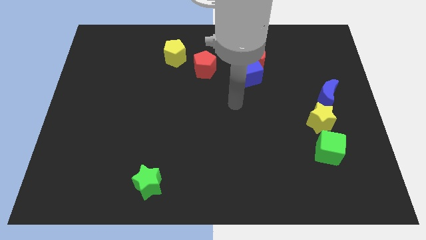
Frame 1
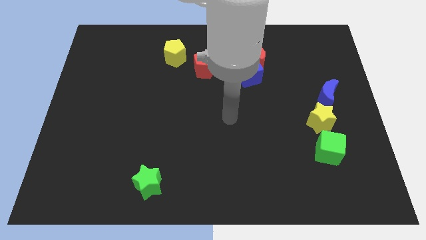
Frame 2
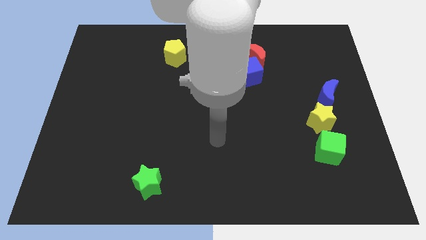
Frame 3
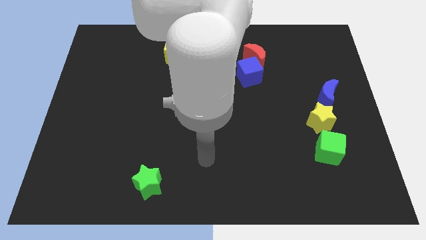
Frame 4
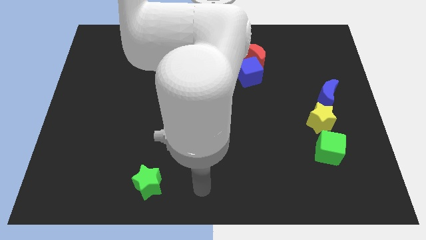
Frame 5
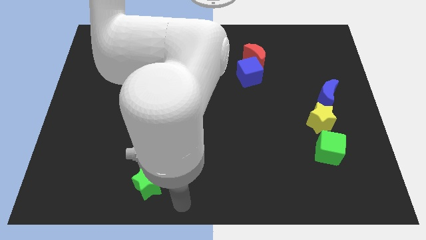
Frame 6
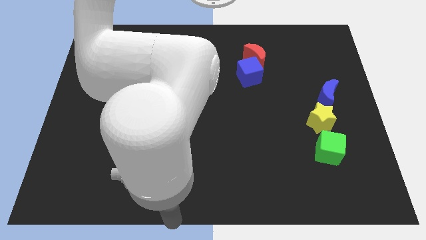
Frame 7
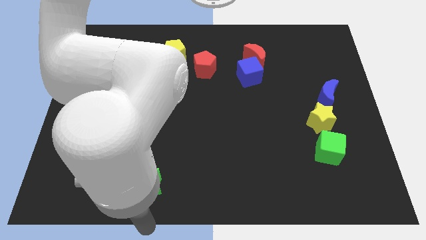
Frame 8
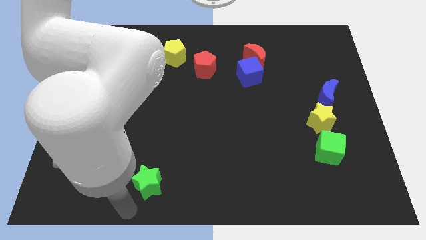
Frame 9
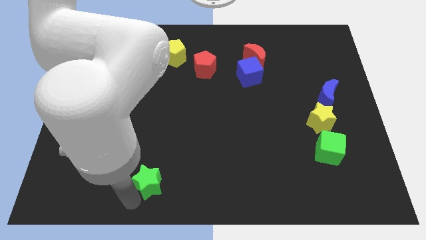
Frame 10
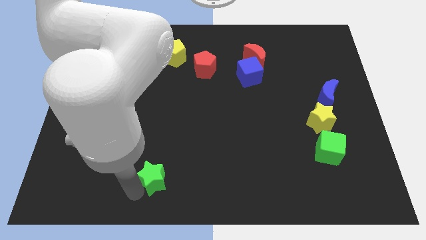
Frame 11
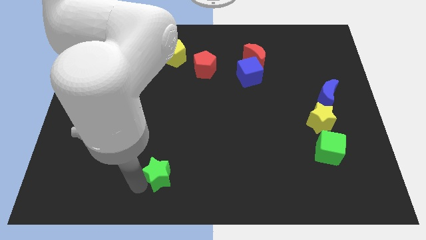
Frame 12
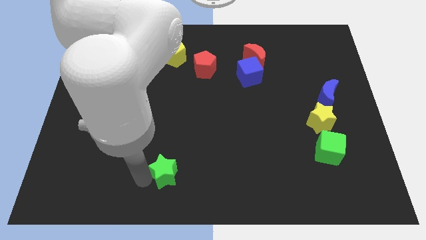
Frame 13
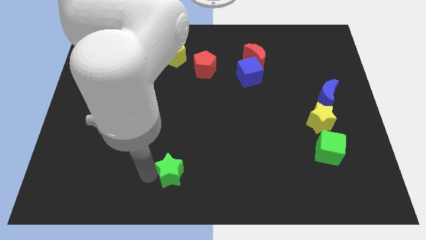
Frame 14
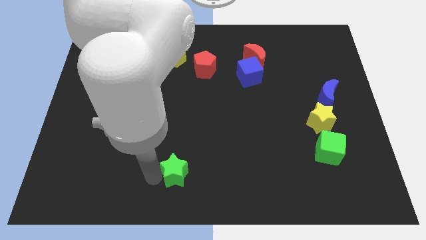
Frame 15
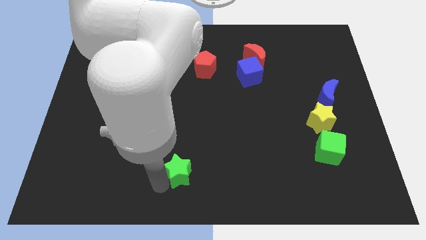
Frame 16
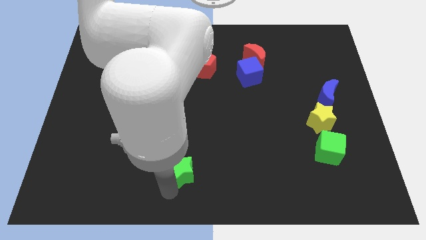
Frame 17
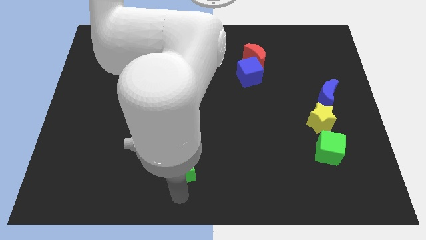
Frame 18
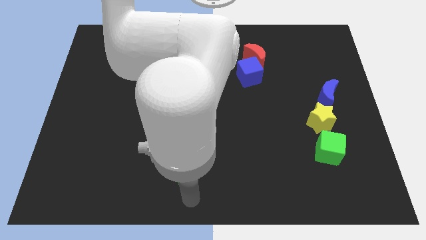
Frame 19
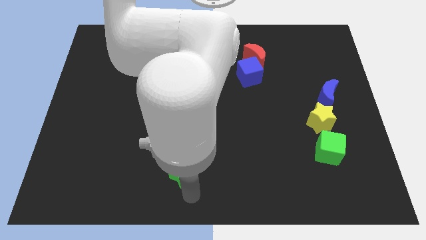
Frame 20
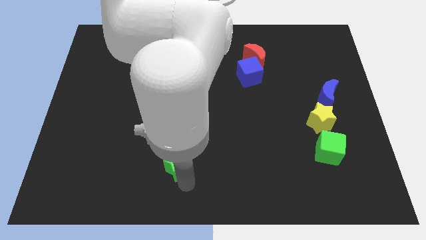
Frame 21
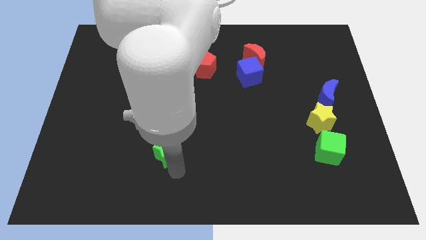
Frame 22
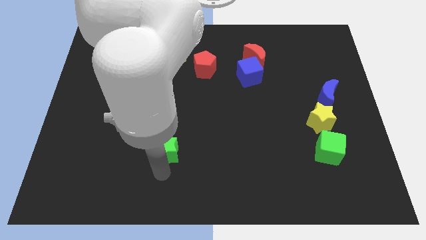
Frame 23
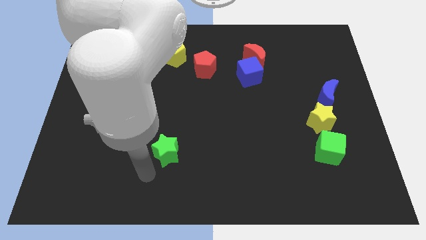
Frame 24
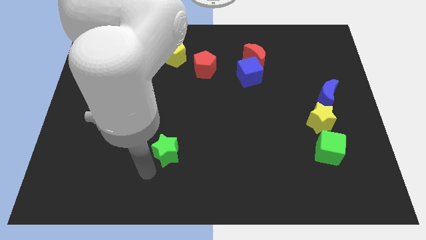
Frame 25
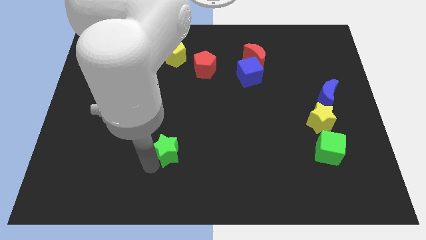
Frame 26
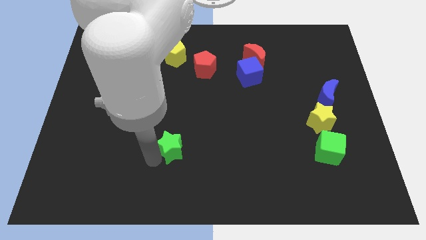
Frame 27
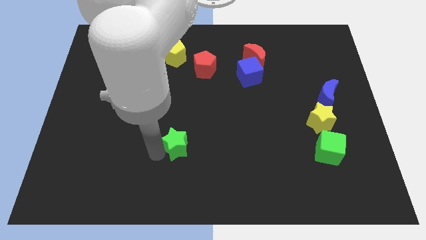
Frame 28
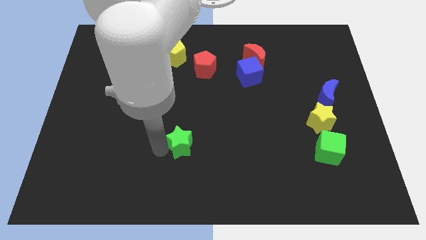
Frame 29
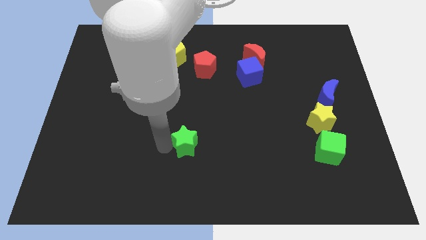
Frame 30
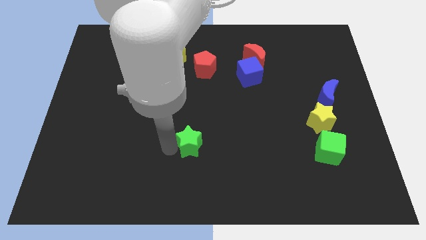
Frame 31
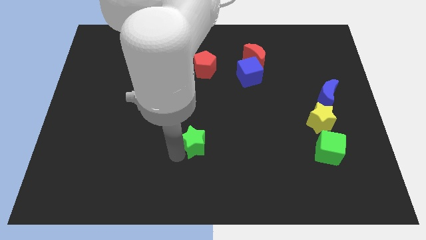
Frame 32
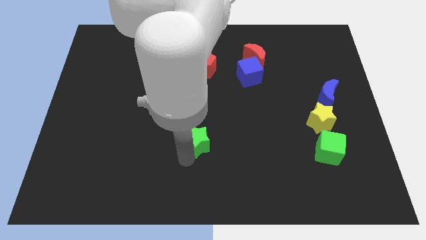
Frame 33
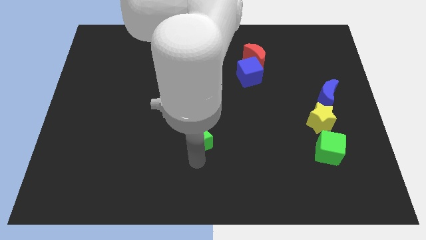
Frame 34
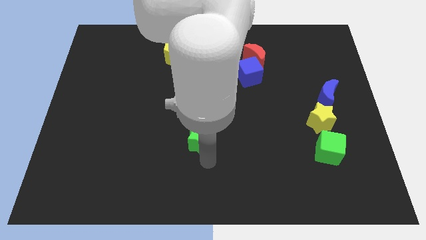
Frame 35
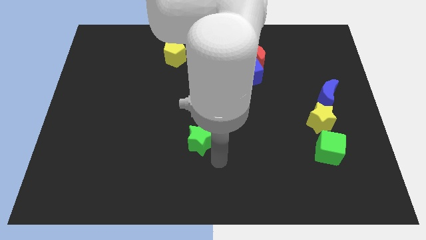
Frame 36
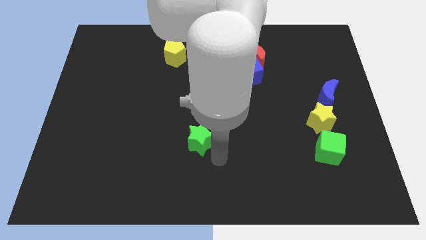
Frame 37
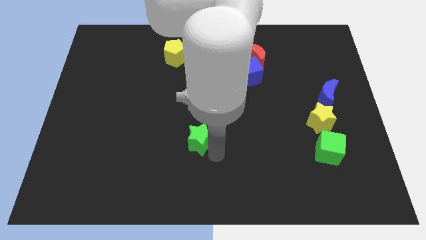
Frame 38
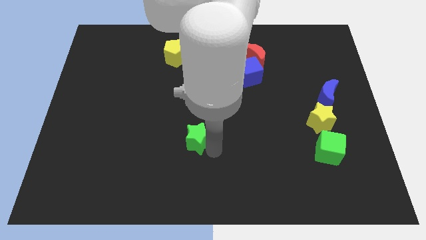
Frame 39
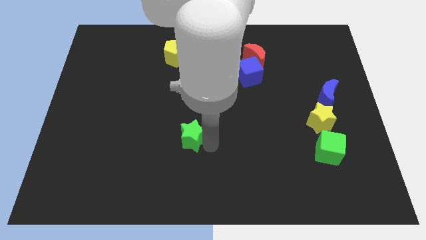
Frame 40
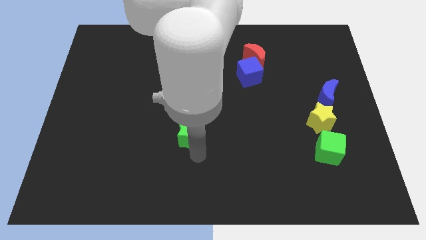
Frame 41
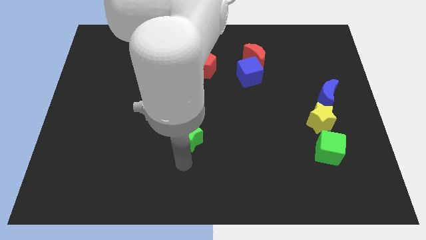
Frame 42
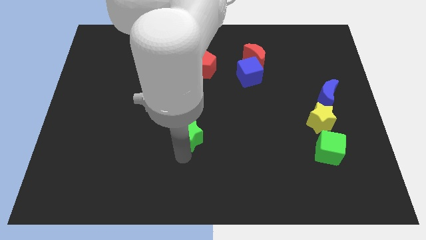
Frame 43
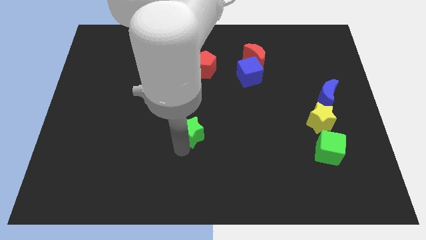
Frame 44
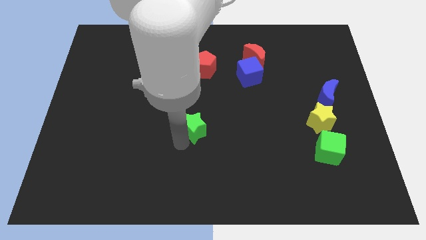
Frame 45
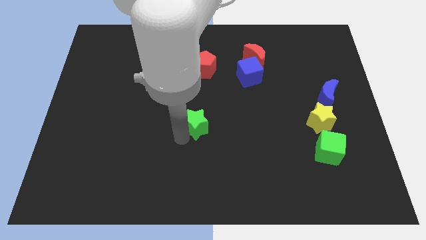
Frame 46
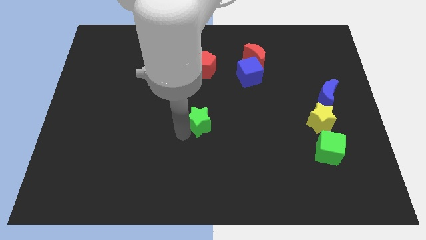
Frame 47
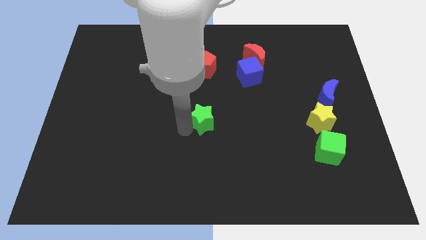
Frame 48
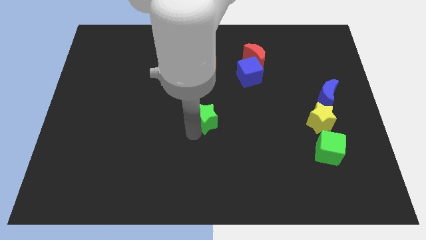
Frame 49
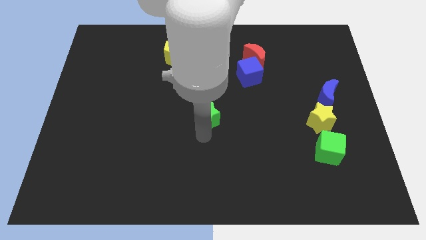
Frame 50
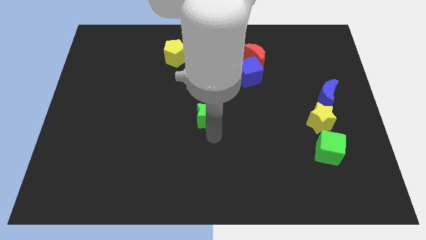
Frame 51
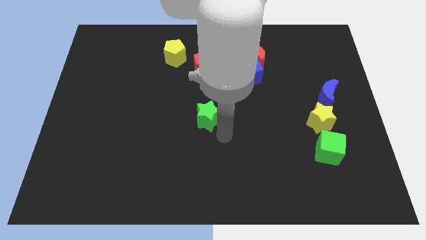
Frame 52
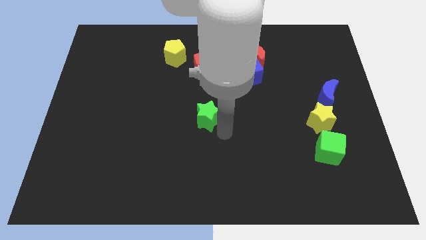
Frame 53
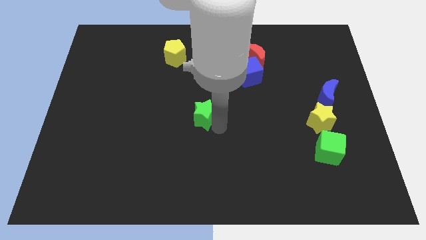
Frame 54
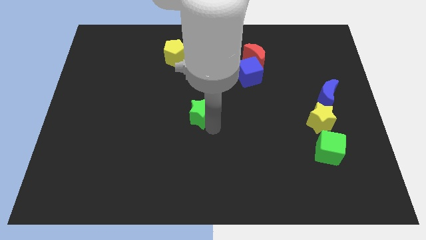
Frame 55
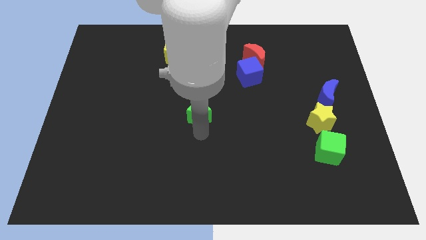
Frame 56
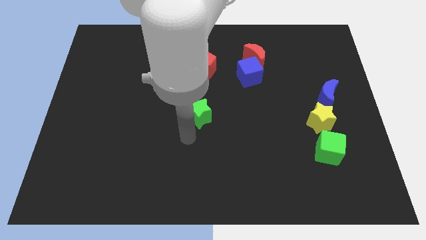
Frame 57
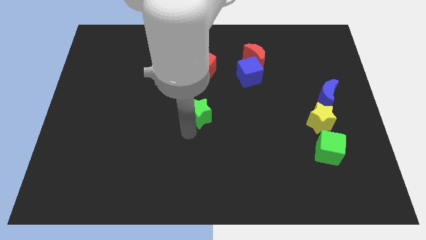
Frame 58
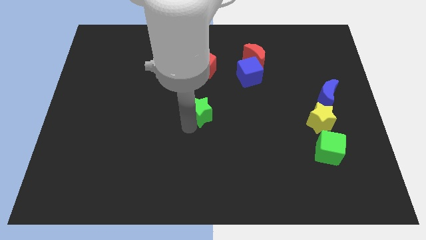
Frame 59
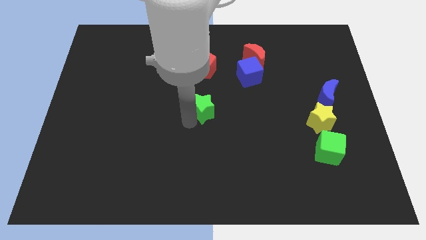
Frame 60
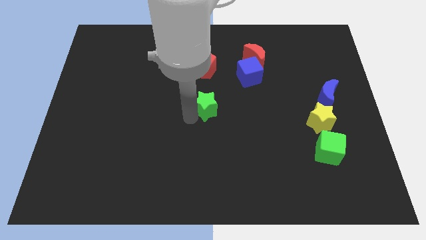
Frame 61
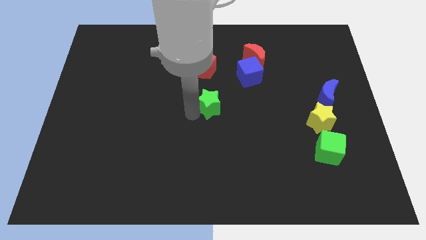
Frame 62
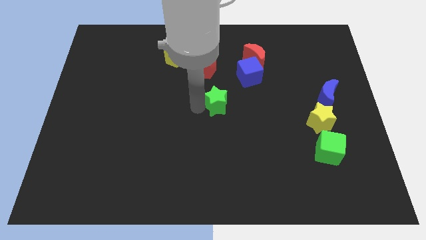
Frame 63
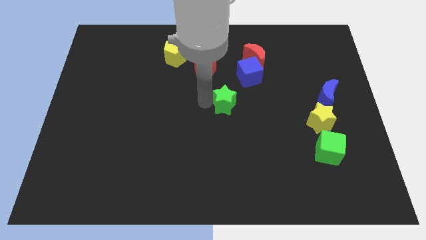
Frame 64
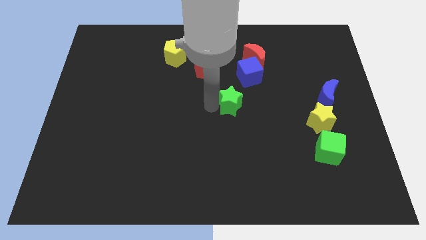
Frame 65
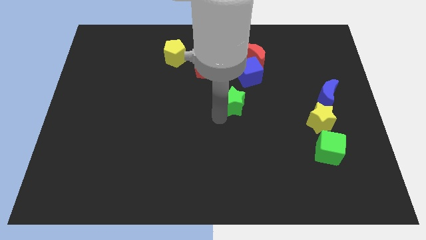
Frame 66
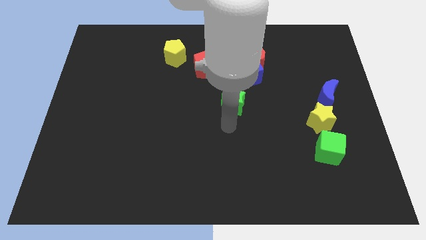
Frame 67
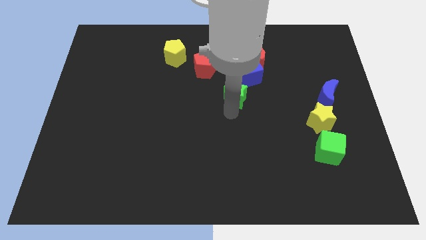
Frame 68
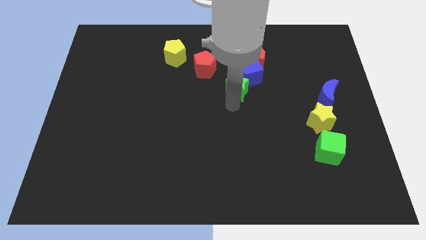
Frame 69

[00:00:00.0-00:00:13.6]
move the green star diagonally down and to the left of the red moon
